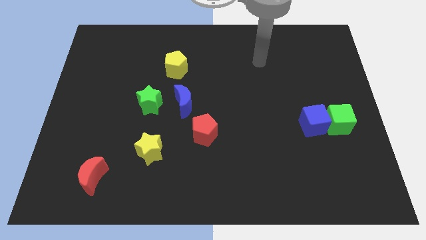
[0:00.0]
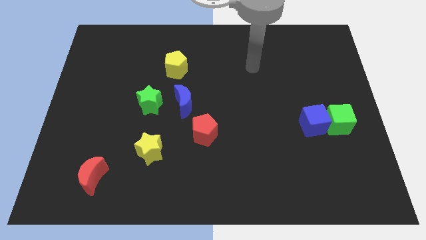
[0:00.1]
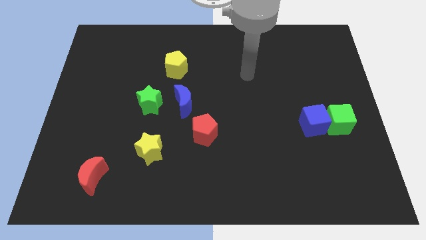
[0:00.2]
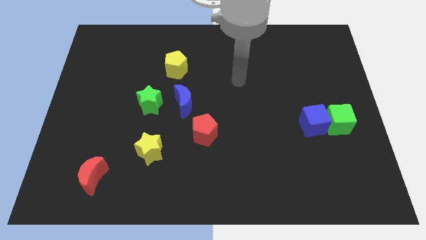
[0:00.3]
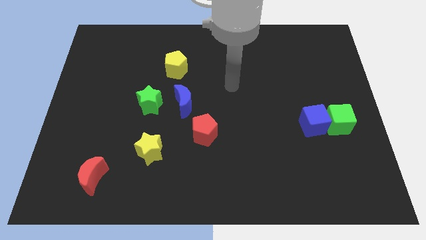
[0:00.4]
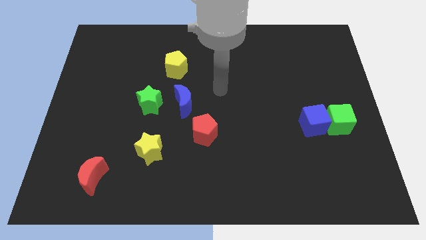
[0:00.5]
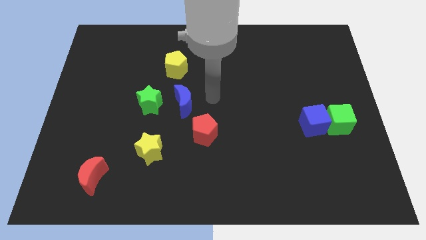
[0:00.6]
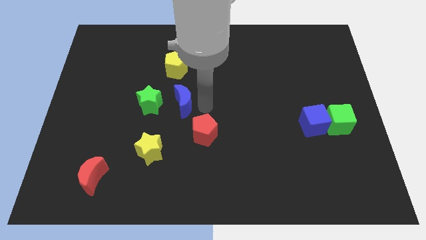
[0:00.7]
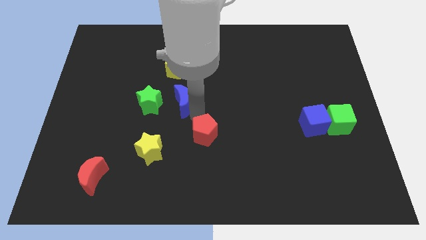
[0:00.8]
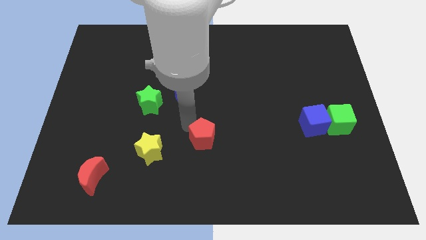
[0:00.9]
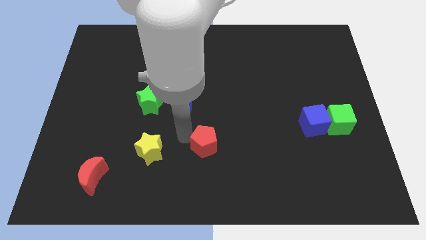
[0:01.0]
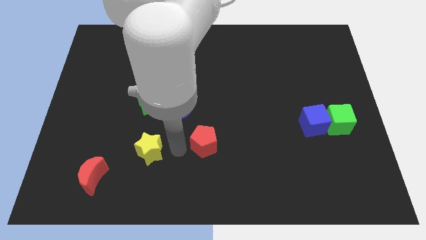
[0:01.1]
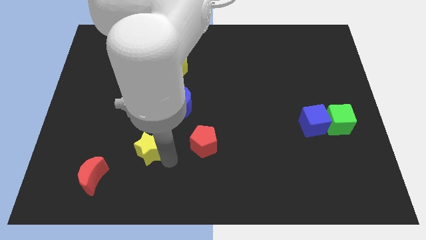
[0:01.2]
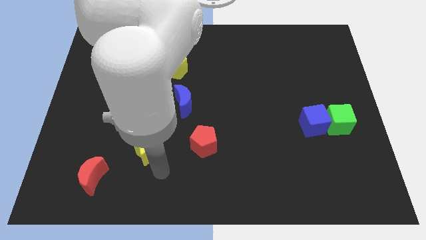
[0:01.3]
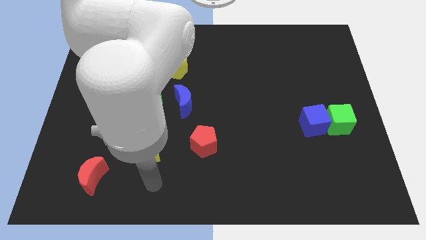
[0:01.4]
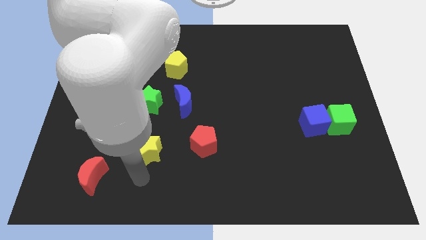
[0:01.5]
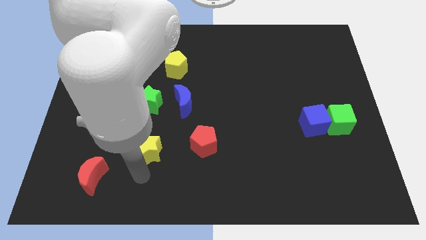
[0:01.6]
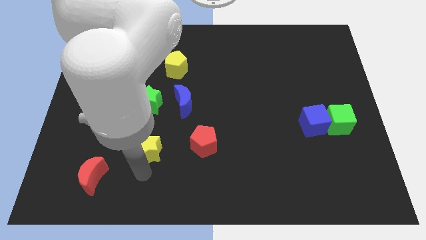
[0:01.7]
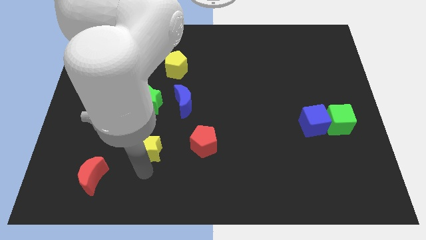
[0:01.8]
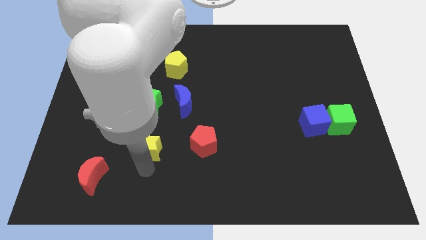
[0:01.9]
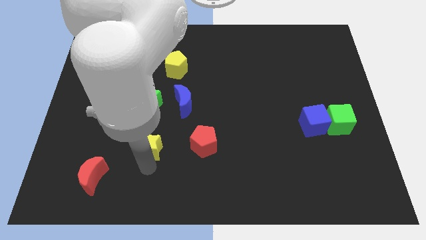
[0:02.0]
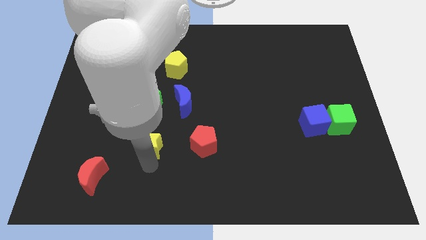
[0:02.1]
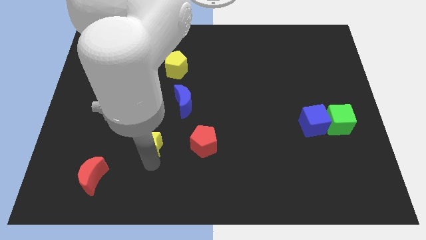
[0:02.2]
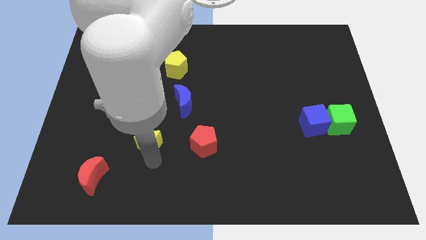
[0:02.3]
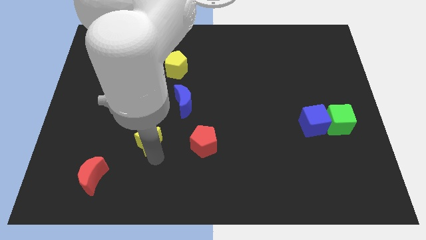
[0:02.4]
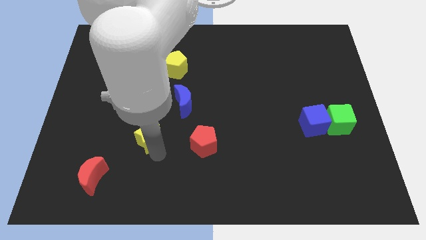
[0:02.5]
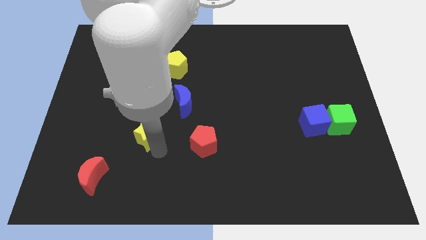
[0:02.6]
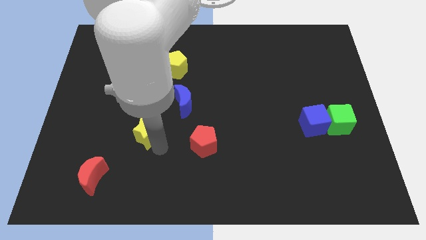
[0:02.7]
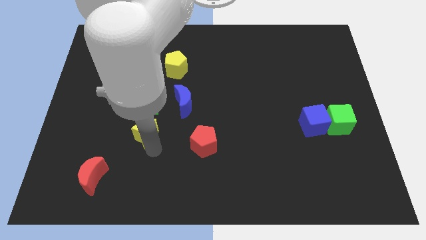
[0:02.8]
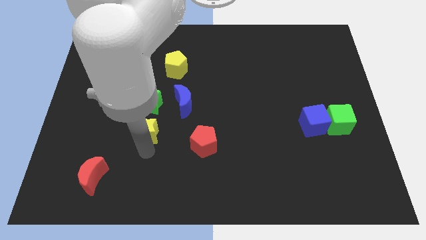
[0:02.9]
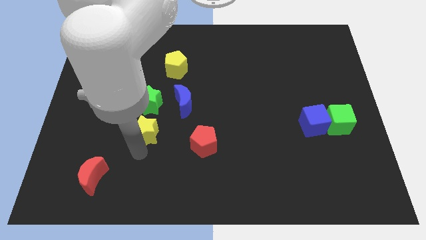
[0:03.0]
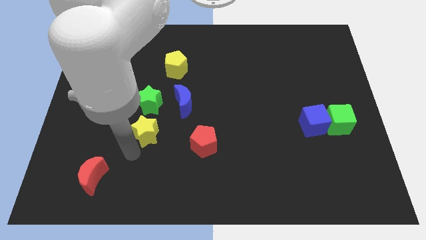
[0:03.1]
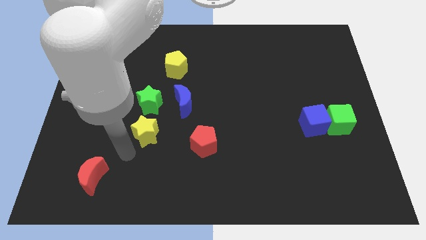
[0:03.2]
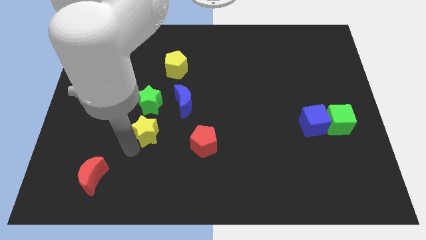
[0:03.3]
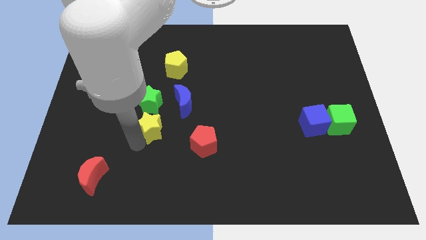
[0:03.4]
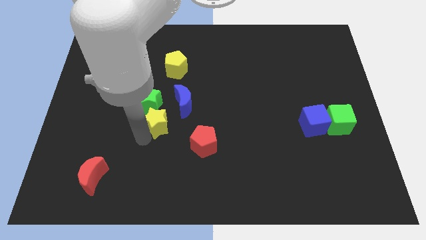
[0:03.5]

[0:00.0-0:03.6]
move the yellow star upwards a little

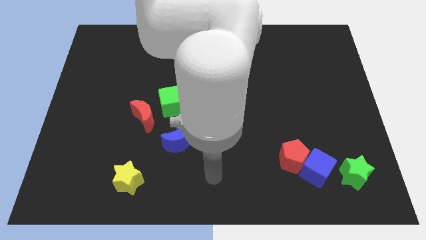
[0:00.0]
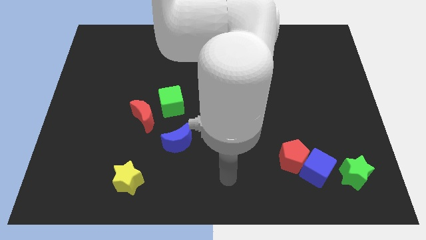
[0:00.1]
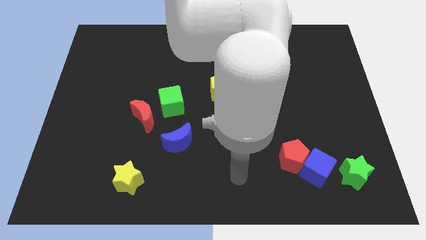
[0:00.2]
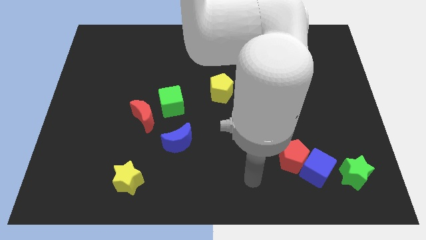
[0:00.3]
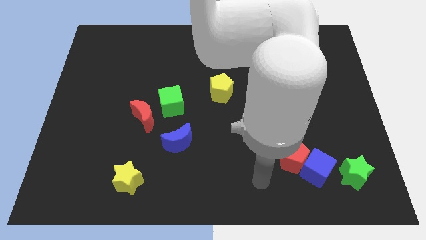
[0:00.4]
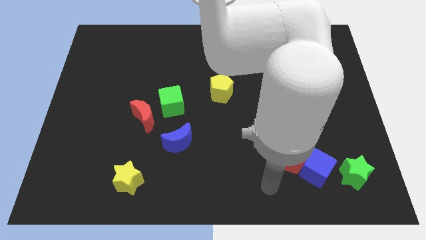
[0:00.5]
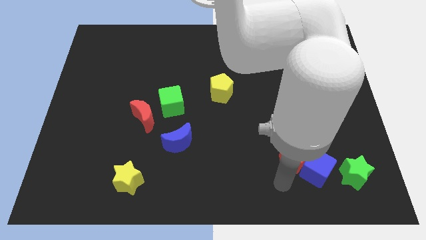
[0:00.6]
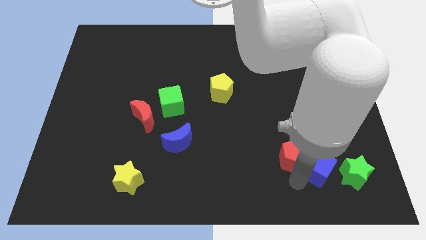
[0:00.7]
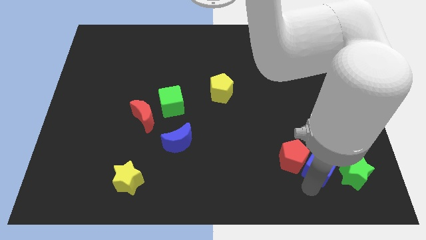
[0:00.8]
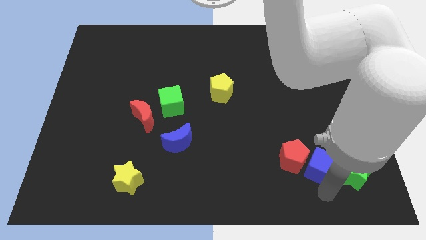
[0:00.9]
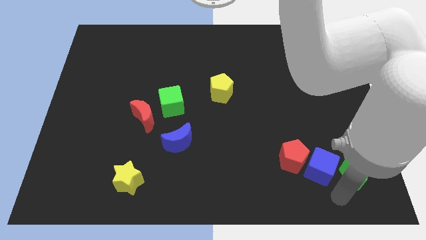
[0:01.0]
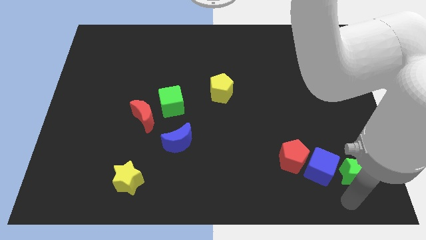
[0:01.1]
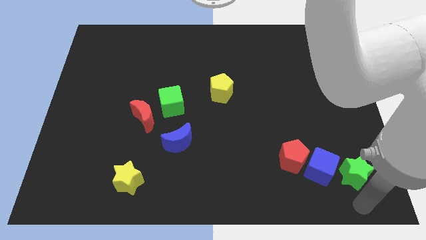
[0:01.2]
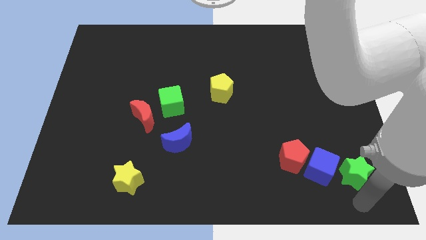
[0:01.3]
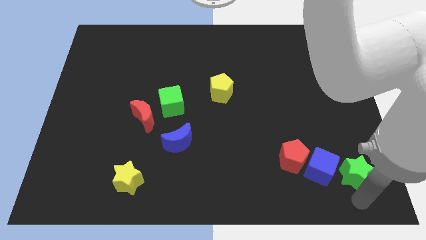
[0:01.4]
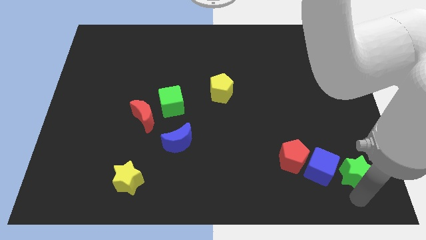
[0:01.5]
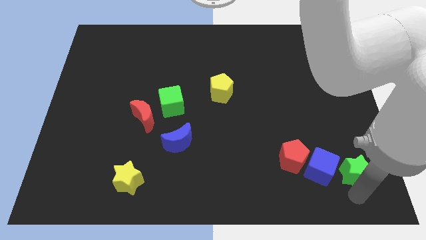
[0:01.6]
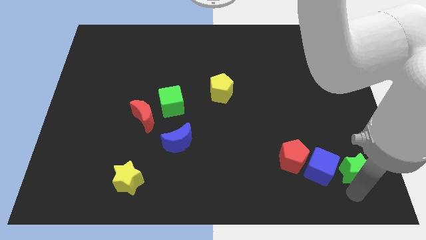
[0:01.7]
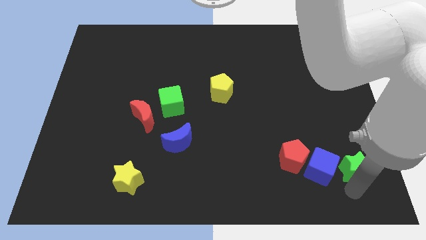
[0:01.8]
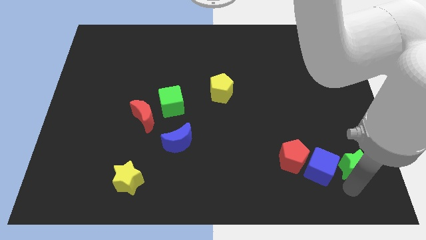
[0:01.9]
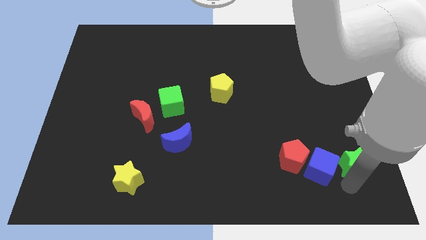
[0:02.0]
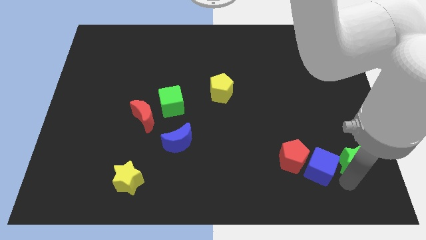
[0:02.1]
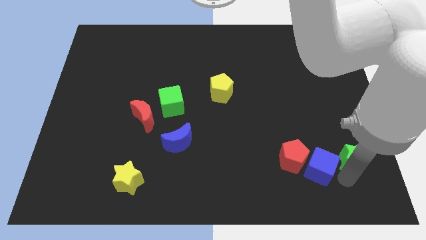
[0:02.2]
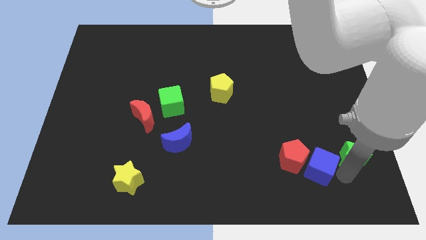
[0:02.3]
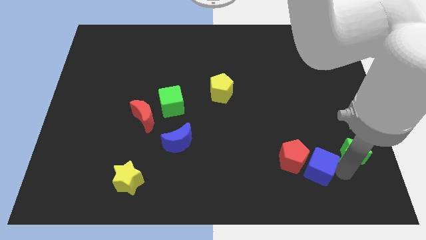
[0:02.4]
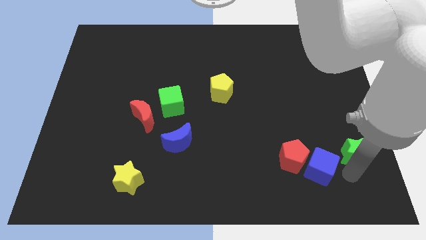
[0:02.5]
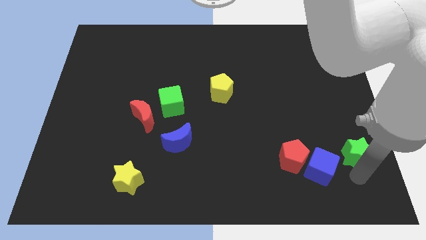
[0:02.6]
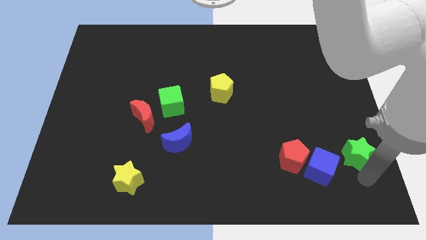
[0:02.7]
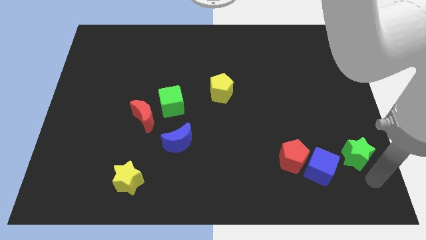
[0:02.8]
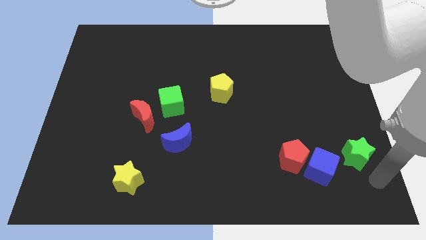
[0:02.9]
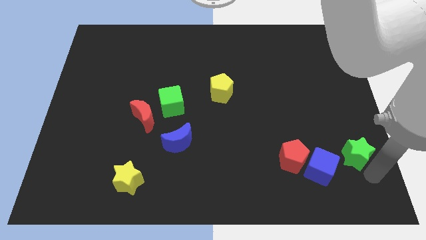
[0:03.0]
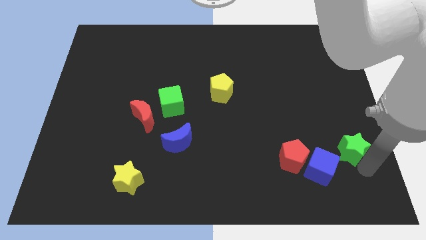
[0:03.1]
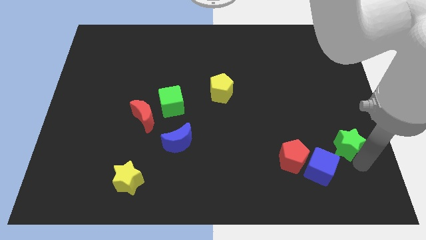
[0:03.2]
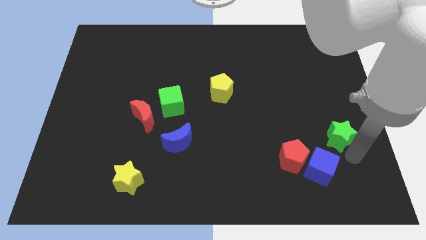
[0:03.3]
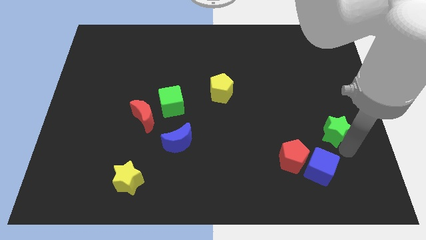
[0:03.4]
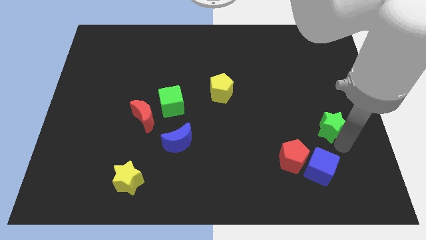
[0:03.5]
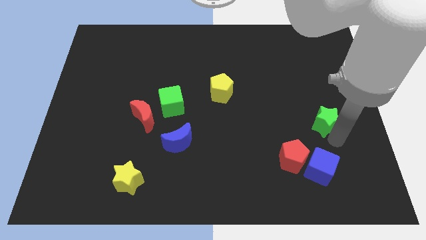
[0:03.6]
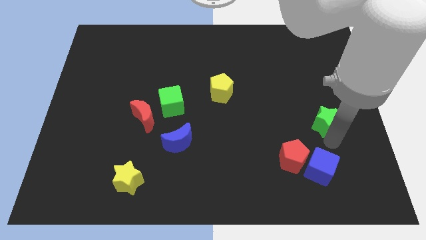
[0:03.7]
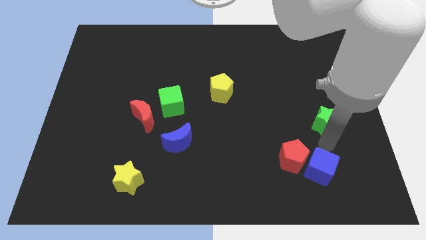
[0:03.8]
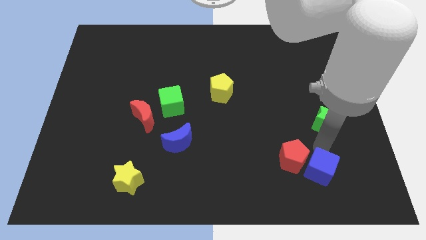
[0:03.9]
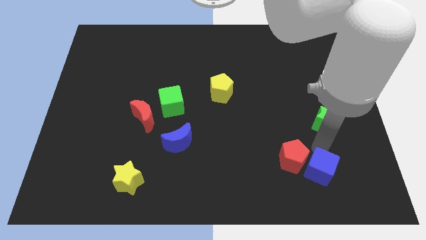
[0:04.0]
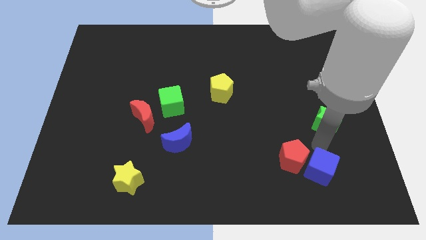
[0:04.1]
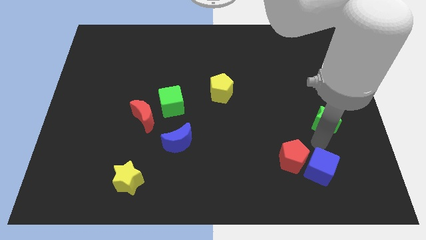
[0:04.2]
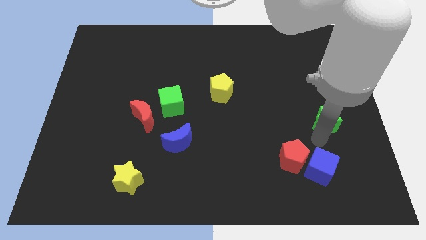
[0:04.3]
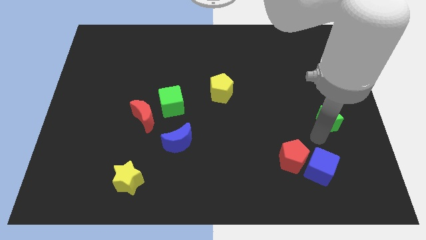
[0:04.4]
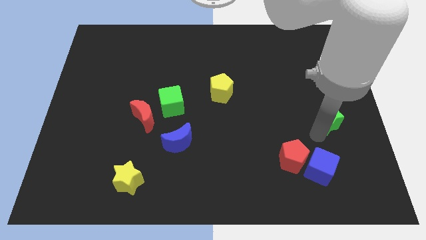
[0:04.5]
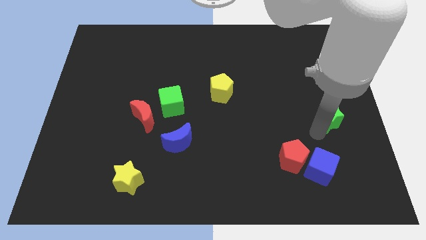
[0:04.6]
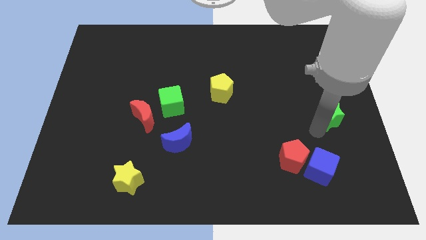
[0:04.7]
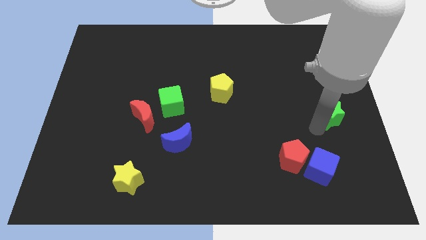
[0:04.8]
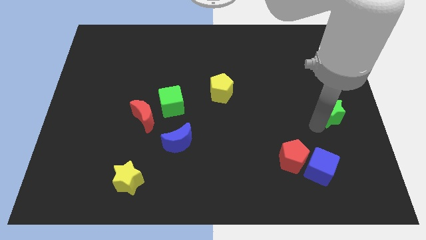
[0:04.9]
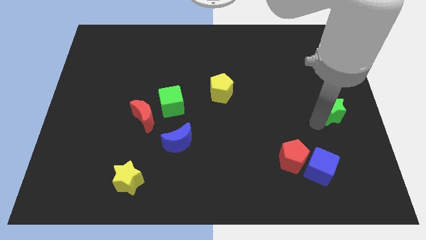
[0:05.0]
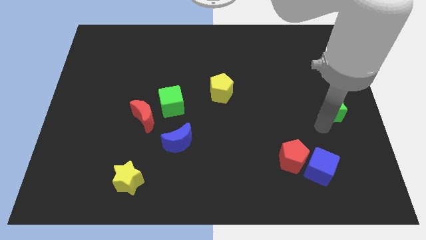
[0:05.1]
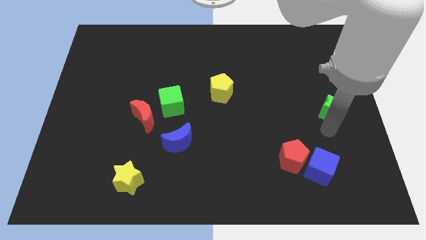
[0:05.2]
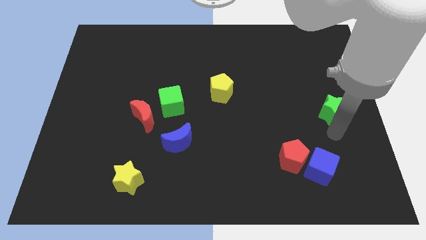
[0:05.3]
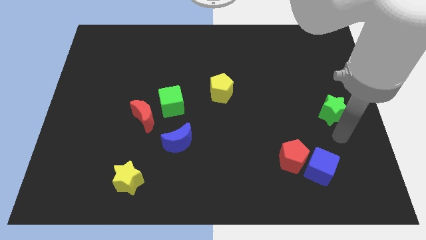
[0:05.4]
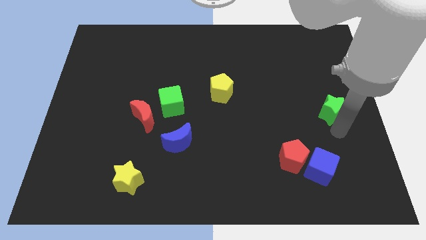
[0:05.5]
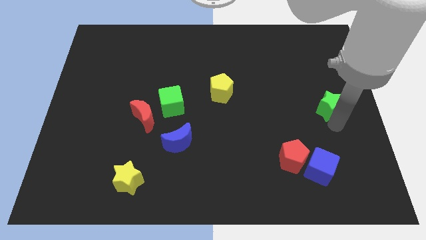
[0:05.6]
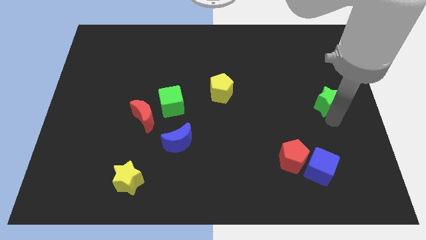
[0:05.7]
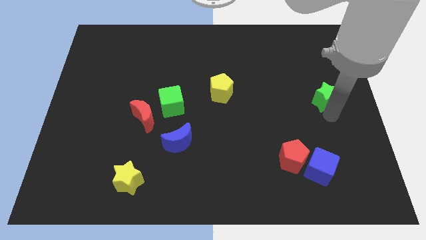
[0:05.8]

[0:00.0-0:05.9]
slide the green star upwards
